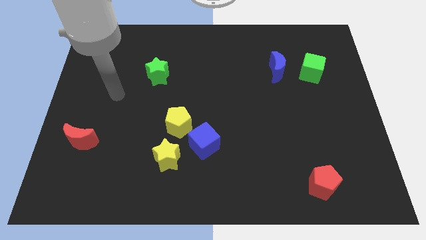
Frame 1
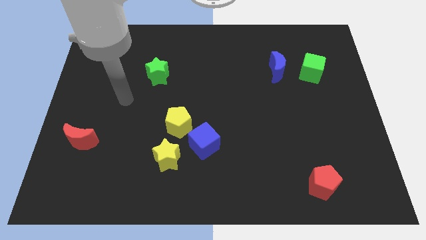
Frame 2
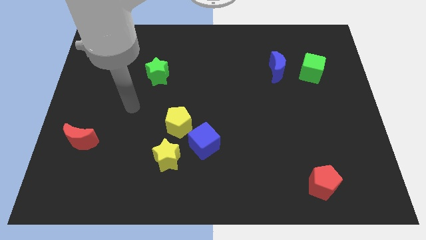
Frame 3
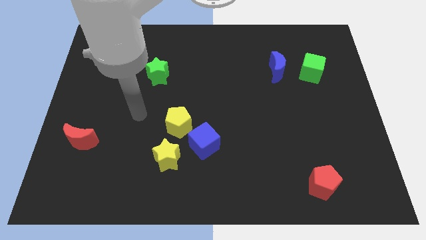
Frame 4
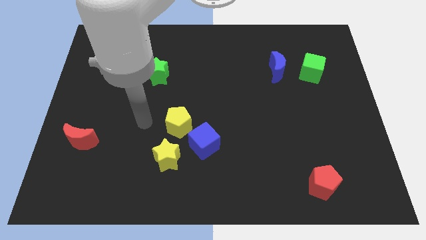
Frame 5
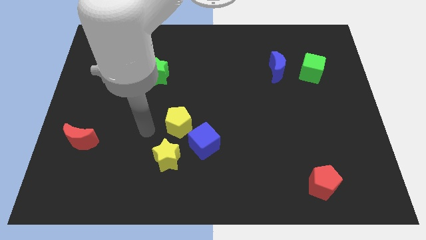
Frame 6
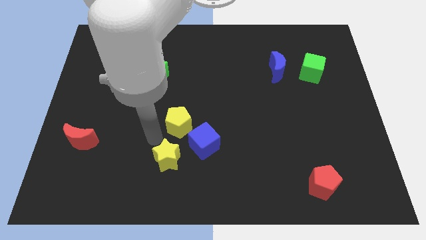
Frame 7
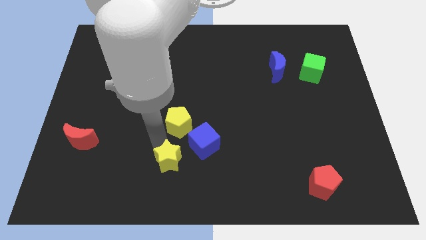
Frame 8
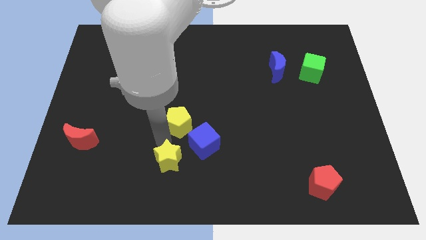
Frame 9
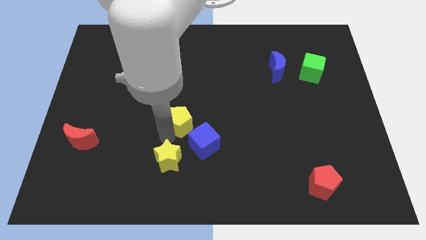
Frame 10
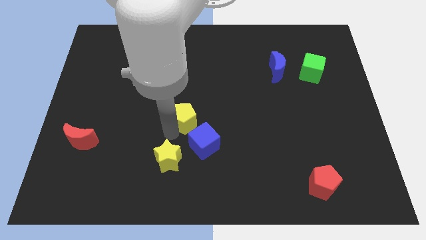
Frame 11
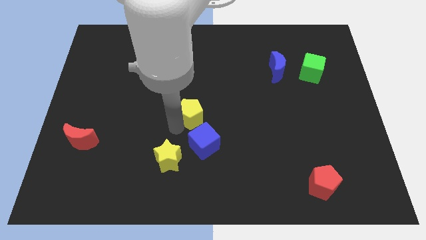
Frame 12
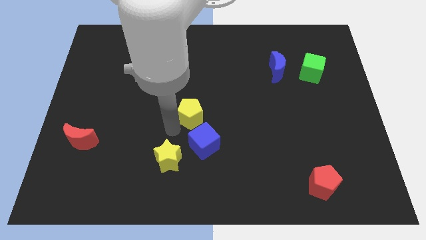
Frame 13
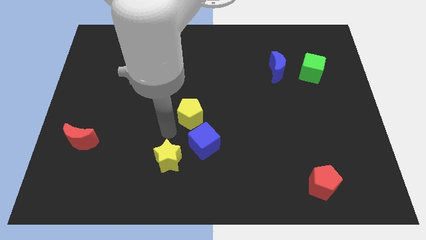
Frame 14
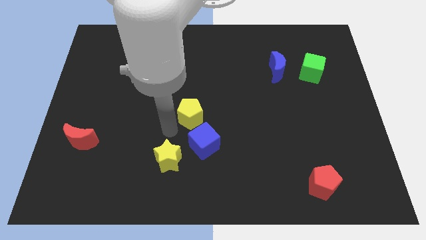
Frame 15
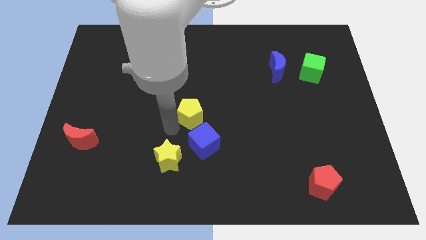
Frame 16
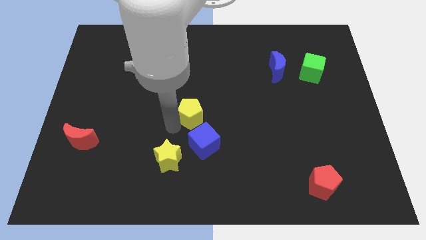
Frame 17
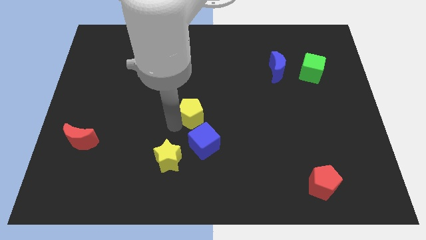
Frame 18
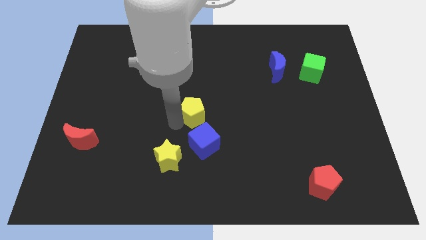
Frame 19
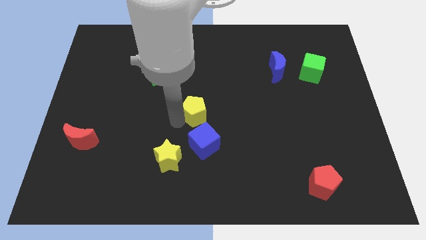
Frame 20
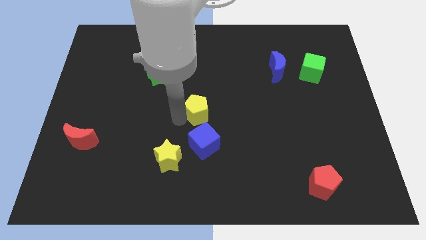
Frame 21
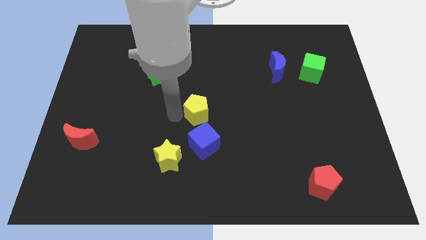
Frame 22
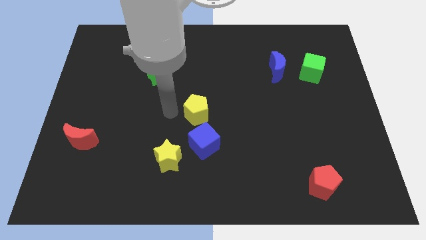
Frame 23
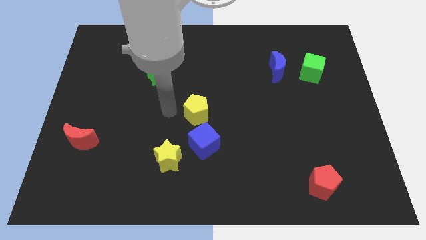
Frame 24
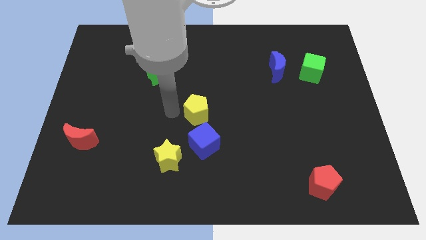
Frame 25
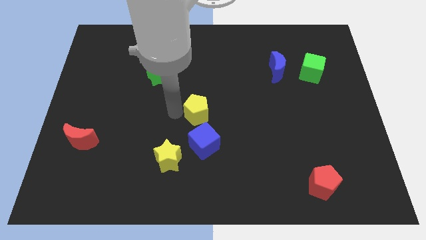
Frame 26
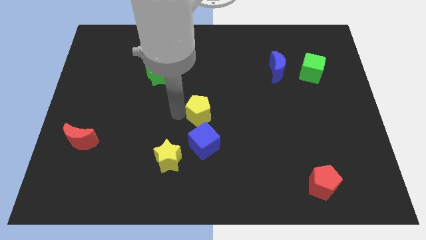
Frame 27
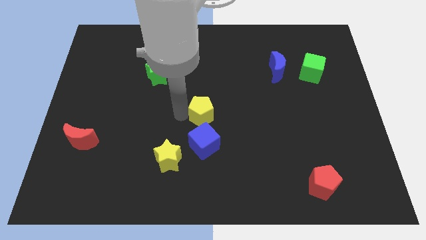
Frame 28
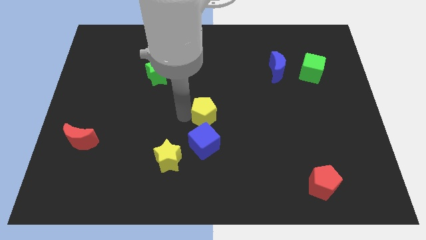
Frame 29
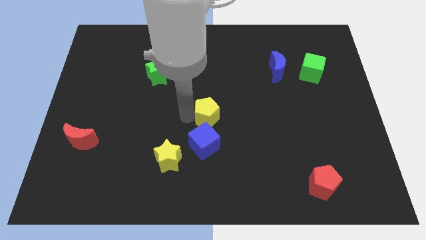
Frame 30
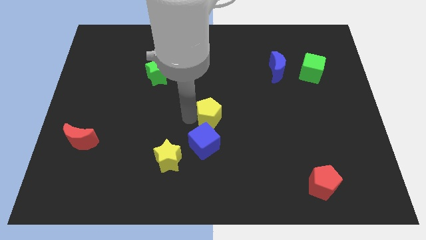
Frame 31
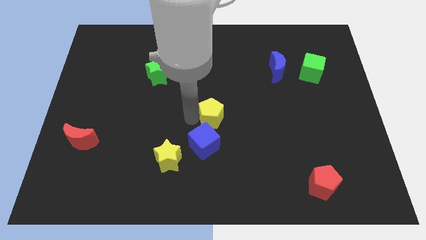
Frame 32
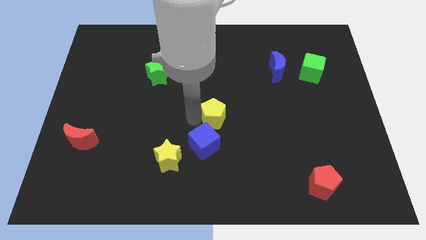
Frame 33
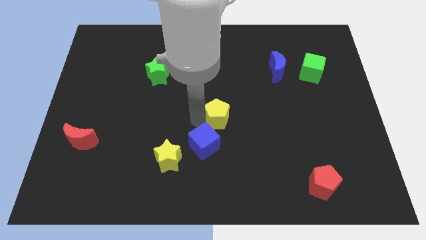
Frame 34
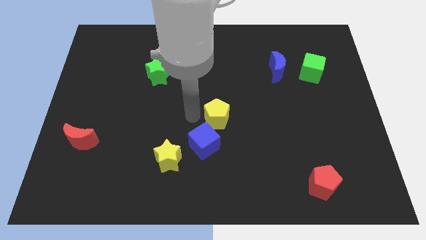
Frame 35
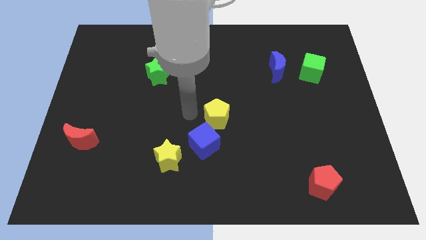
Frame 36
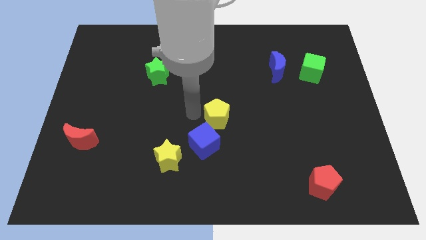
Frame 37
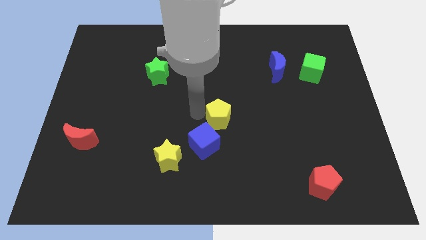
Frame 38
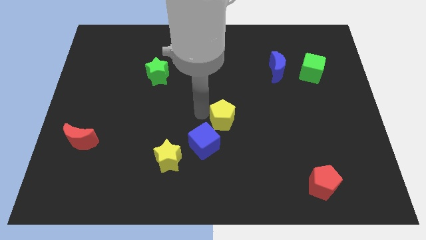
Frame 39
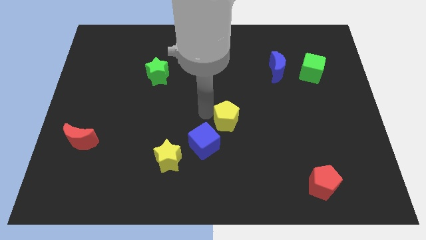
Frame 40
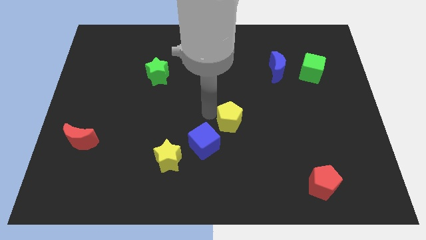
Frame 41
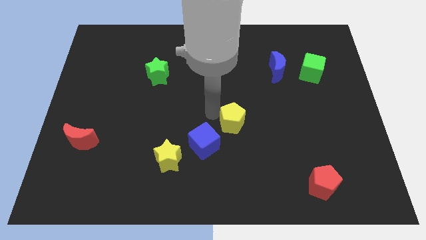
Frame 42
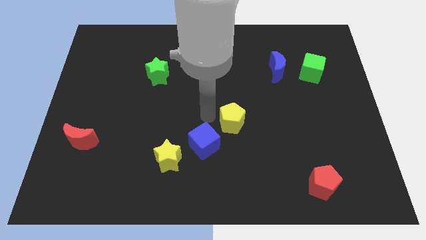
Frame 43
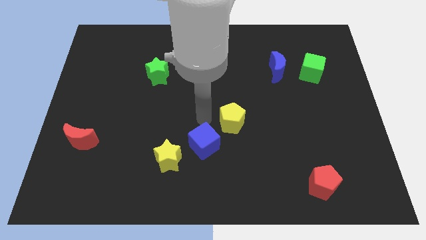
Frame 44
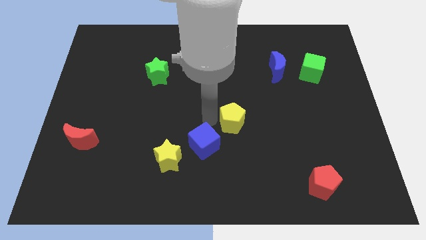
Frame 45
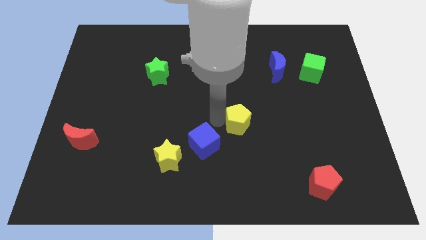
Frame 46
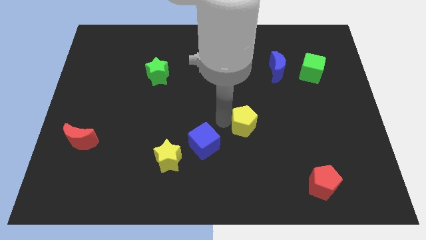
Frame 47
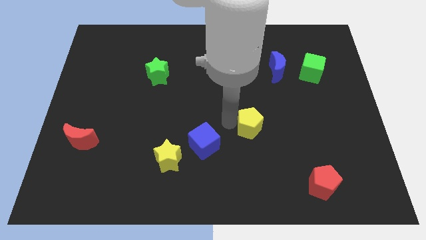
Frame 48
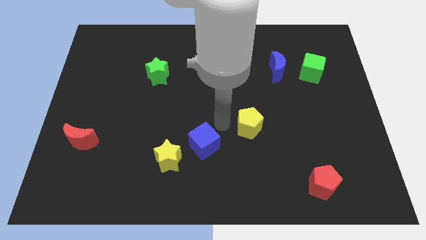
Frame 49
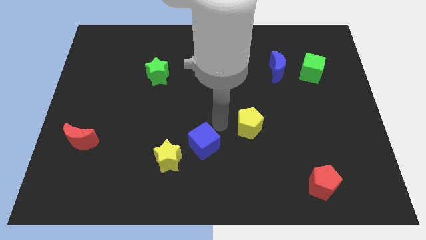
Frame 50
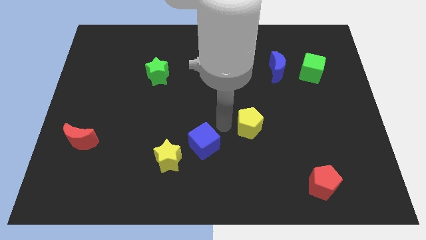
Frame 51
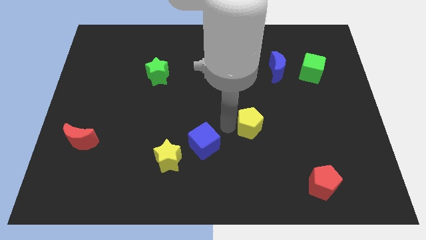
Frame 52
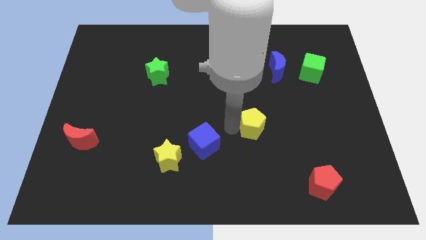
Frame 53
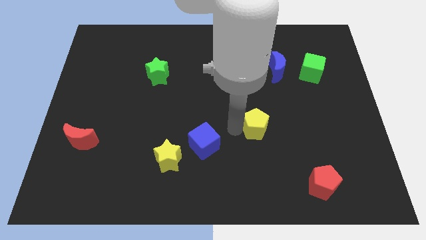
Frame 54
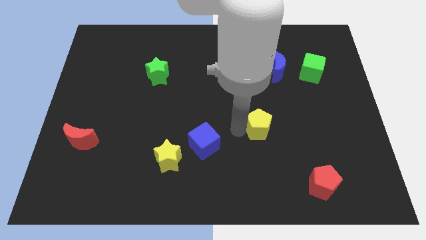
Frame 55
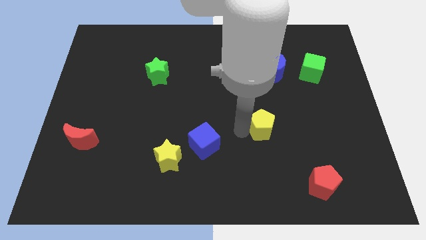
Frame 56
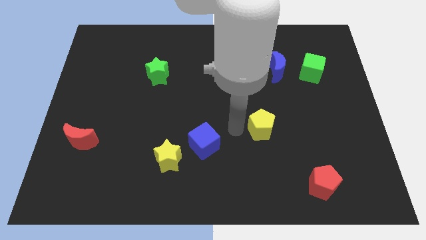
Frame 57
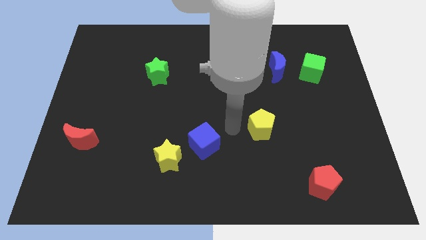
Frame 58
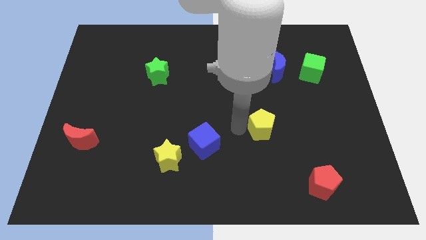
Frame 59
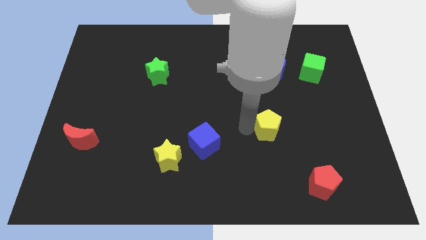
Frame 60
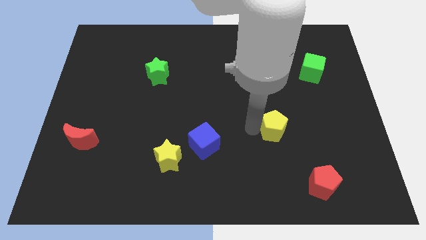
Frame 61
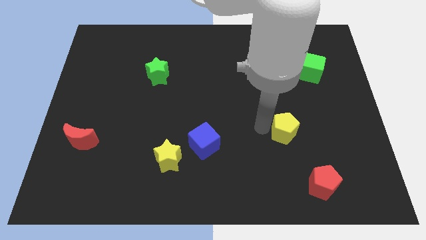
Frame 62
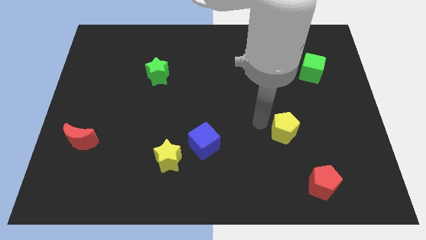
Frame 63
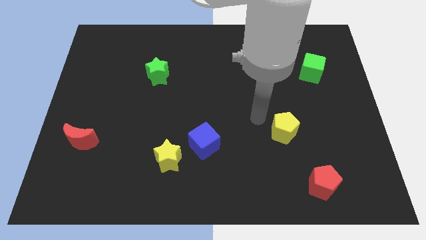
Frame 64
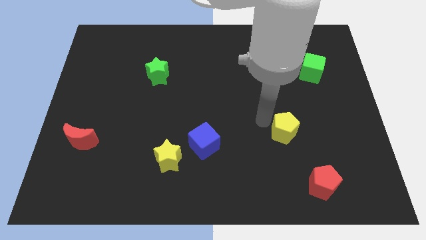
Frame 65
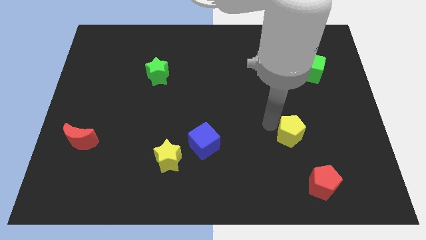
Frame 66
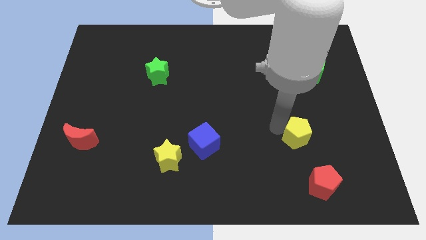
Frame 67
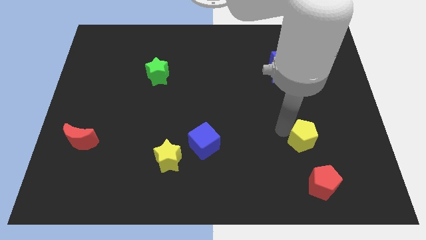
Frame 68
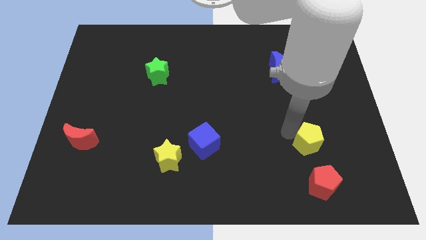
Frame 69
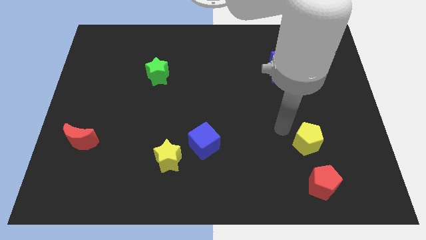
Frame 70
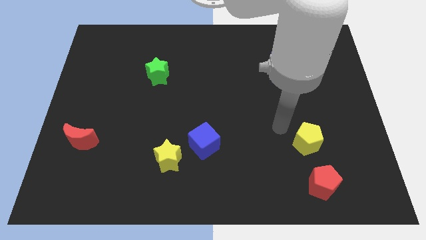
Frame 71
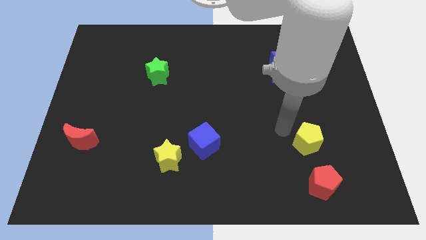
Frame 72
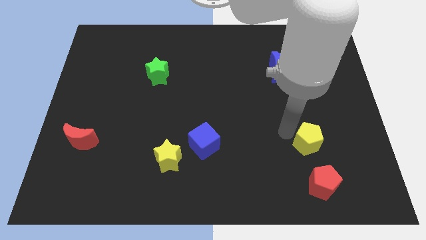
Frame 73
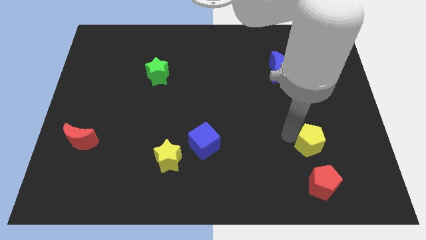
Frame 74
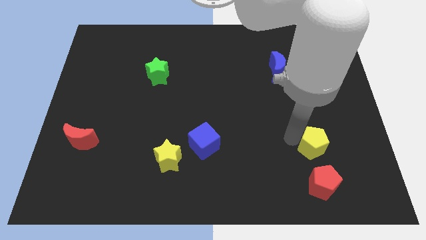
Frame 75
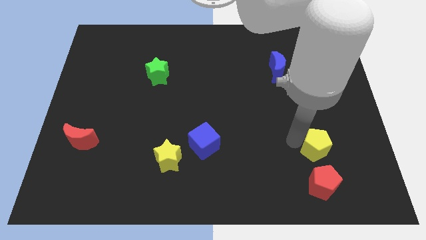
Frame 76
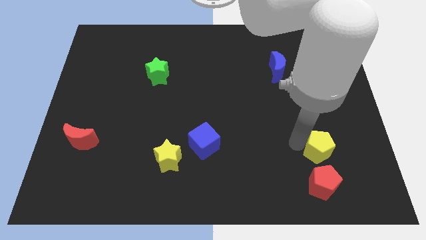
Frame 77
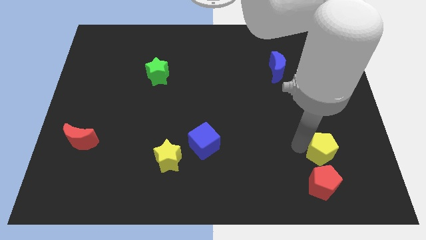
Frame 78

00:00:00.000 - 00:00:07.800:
put the yellow pentagon diagonally up and to the right of the red pentagon
